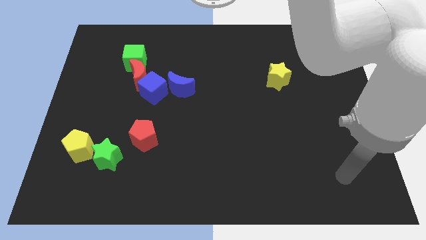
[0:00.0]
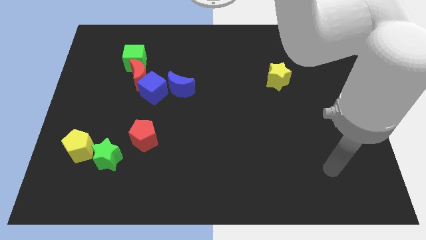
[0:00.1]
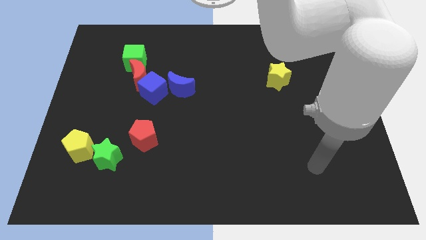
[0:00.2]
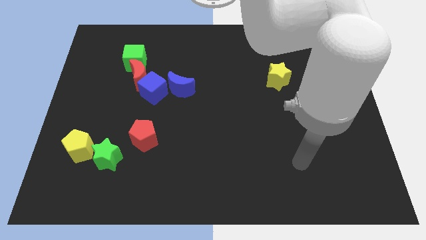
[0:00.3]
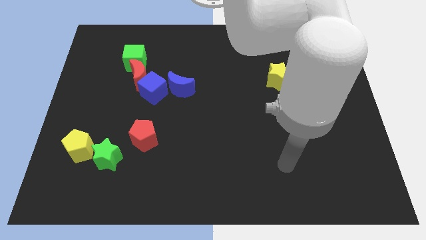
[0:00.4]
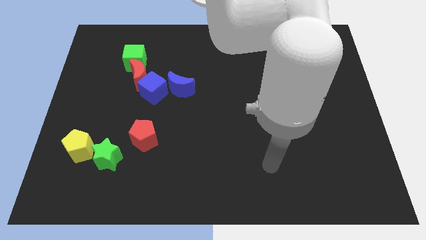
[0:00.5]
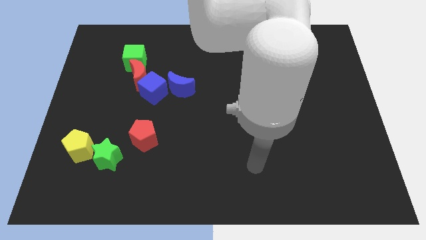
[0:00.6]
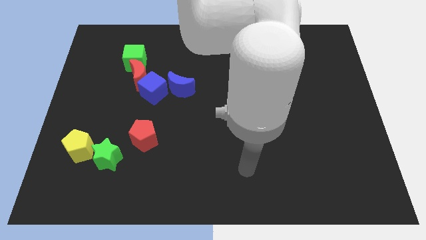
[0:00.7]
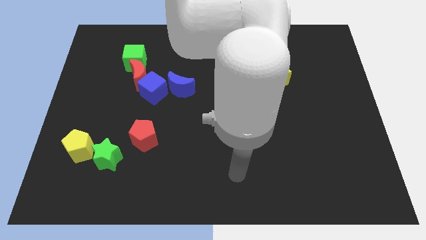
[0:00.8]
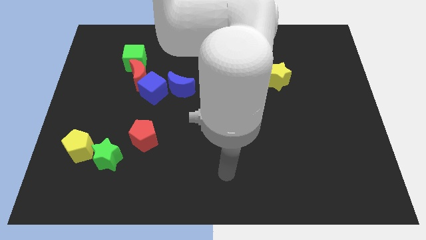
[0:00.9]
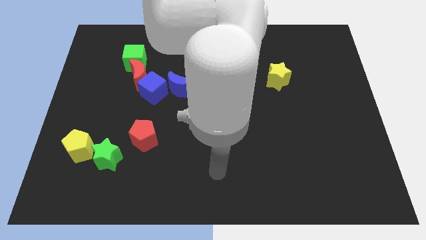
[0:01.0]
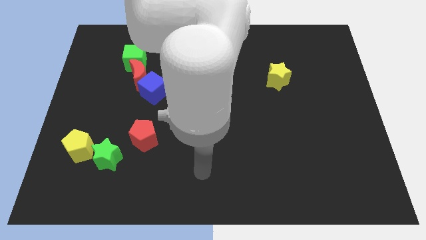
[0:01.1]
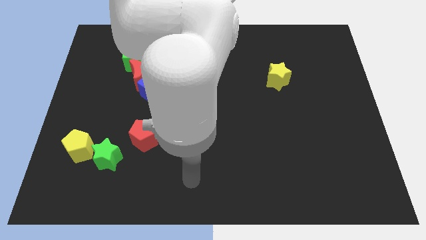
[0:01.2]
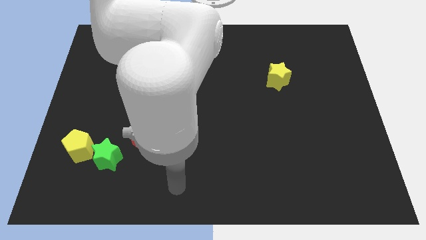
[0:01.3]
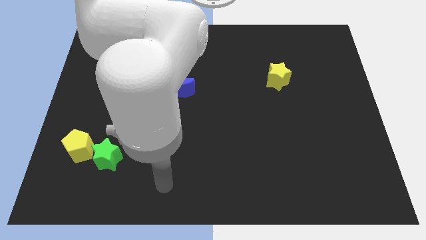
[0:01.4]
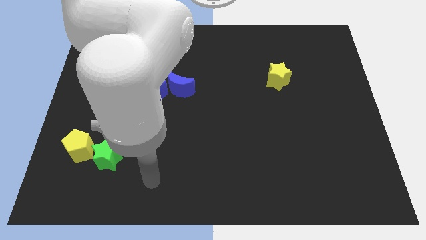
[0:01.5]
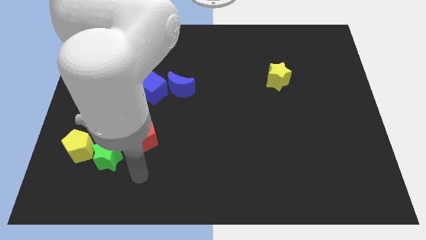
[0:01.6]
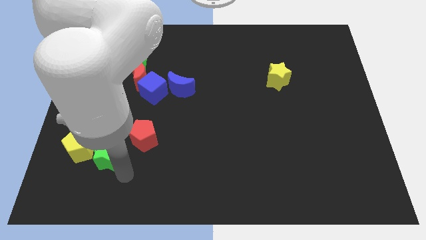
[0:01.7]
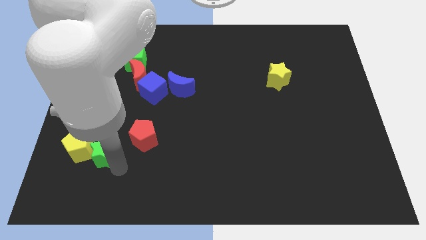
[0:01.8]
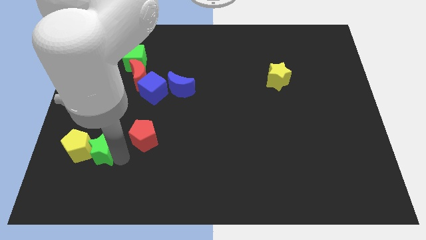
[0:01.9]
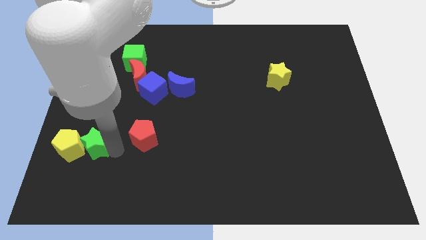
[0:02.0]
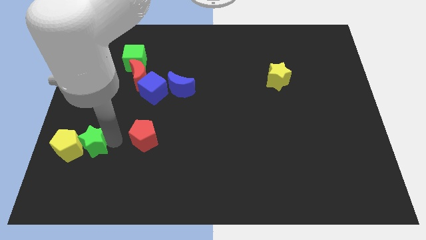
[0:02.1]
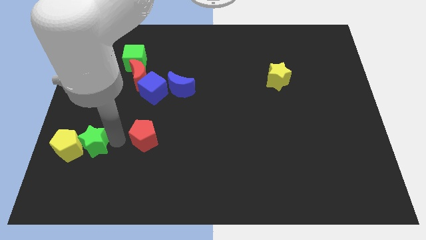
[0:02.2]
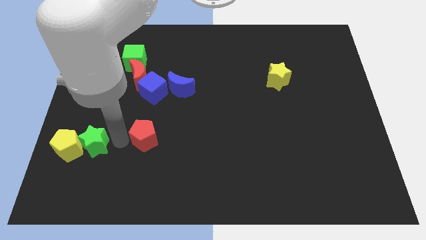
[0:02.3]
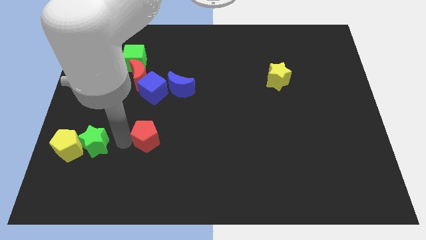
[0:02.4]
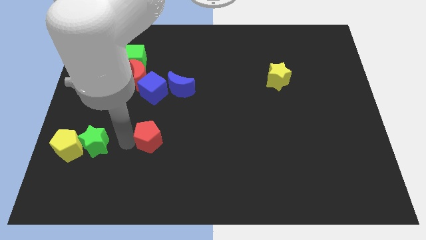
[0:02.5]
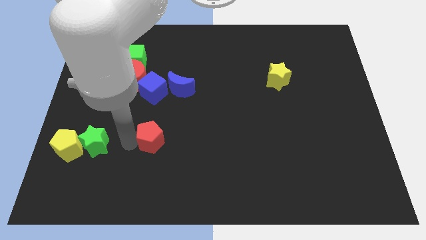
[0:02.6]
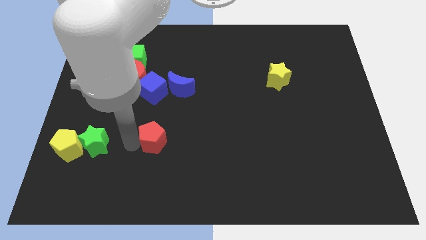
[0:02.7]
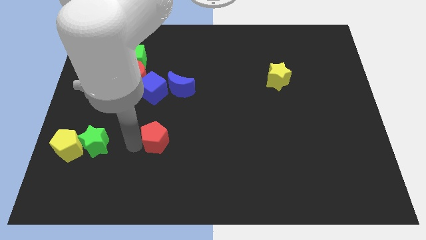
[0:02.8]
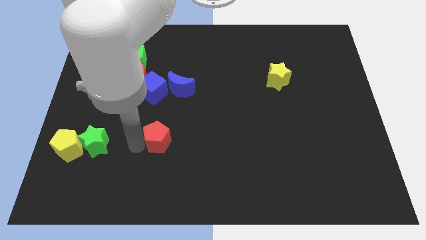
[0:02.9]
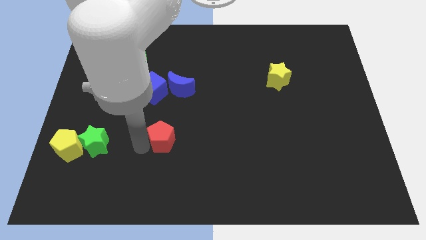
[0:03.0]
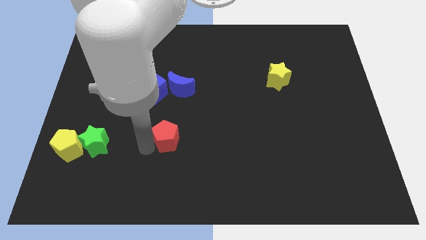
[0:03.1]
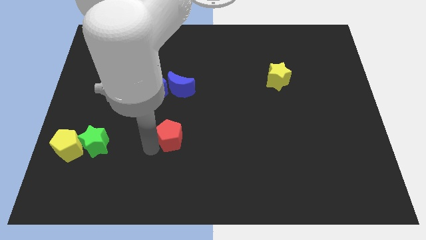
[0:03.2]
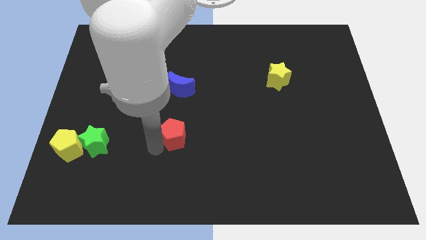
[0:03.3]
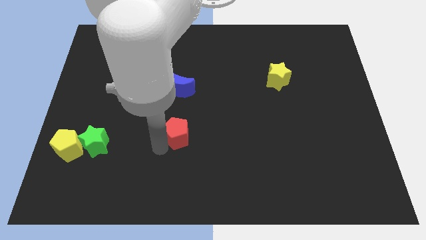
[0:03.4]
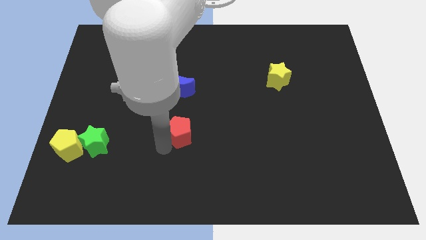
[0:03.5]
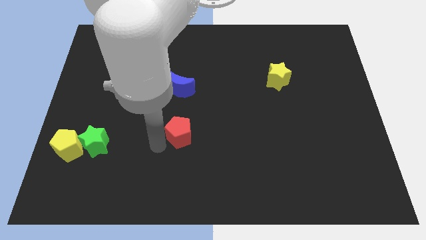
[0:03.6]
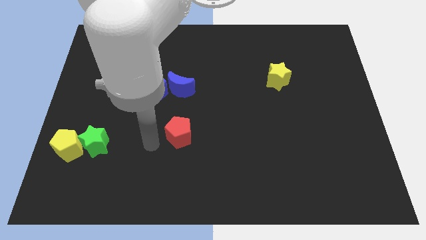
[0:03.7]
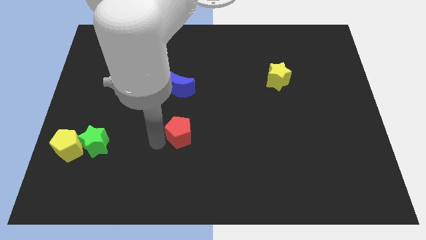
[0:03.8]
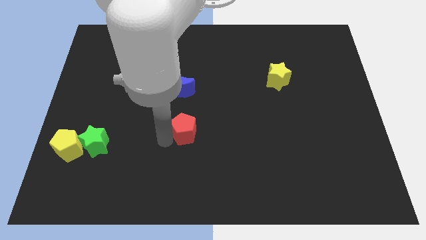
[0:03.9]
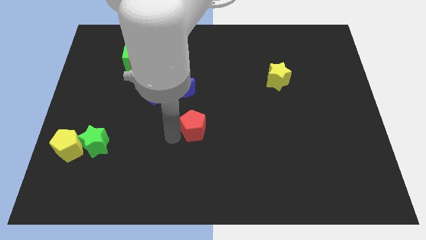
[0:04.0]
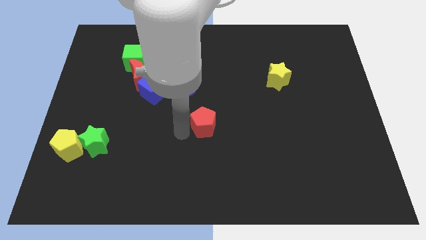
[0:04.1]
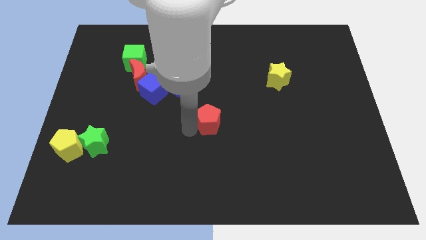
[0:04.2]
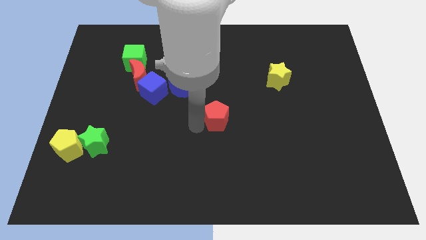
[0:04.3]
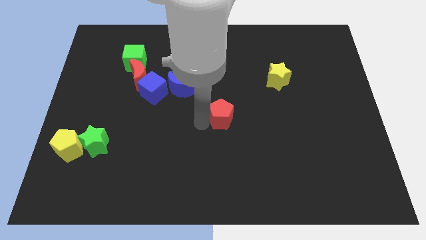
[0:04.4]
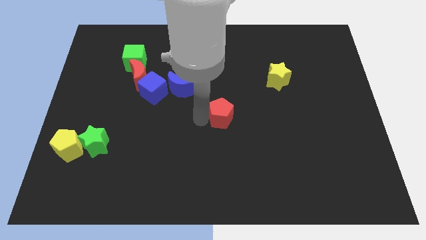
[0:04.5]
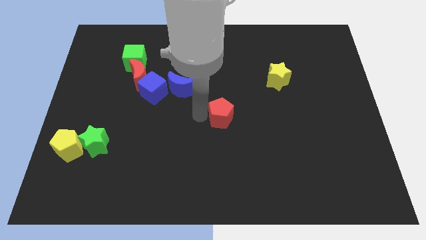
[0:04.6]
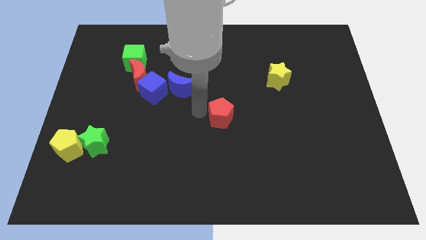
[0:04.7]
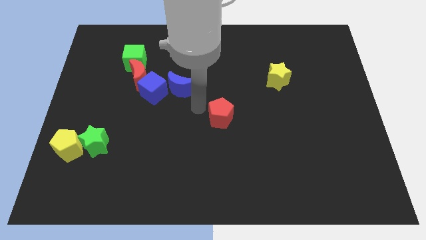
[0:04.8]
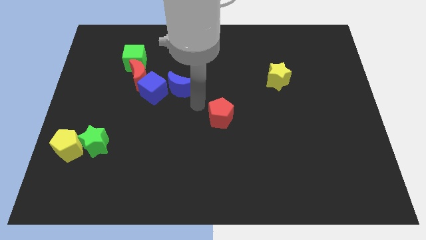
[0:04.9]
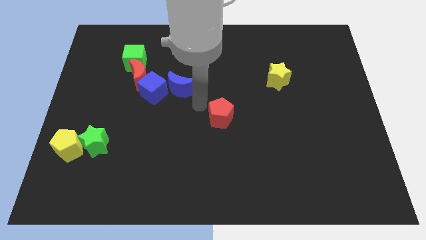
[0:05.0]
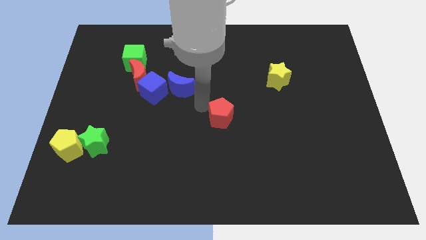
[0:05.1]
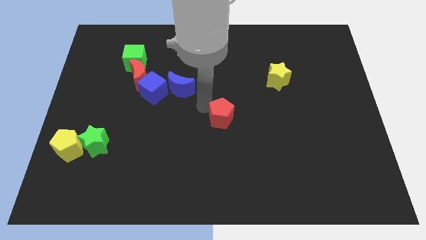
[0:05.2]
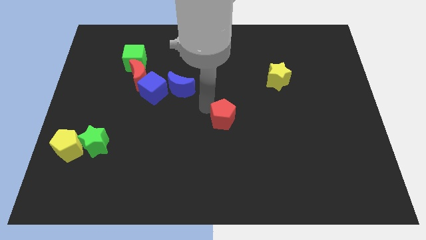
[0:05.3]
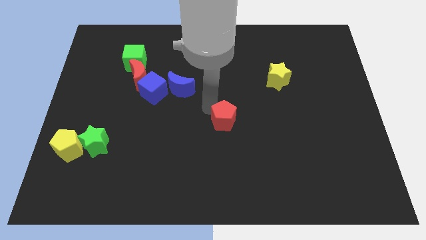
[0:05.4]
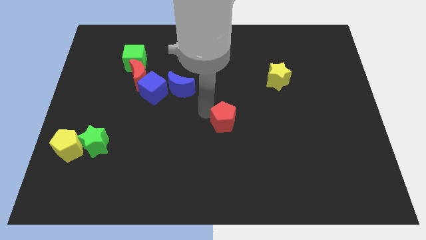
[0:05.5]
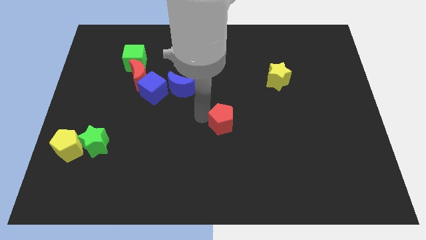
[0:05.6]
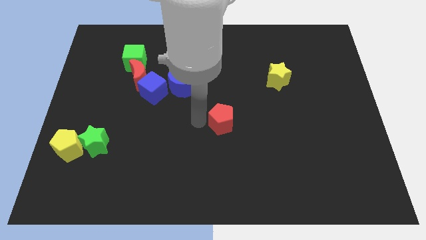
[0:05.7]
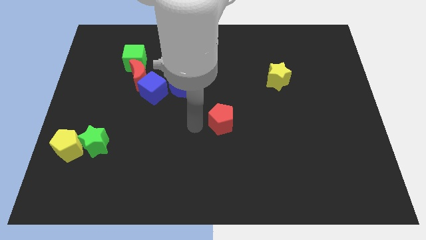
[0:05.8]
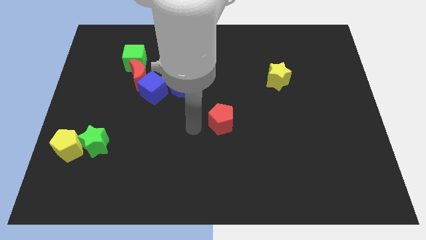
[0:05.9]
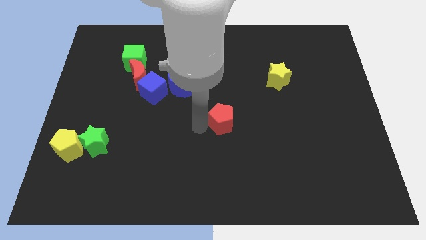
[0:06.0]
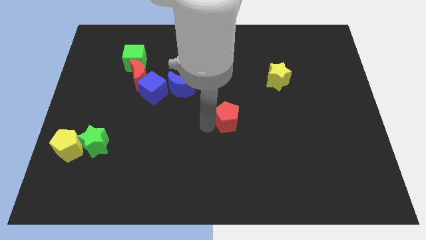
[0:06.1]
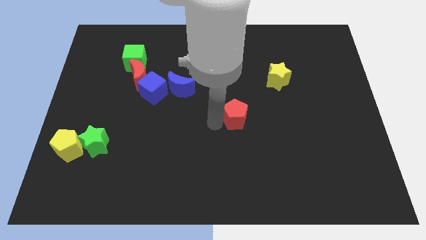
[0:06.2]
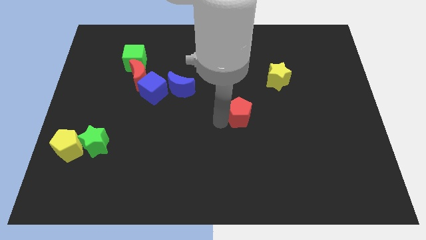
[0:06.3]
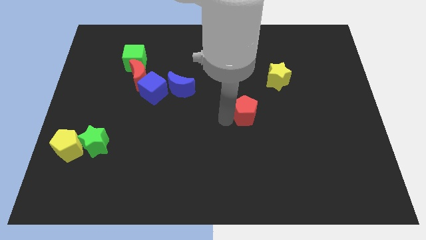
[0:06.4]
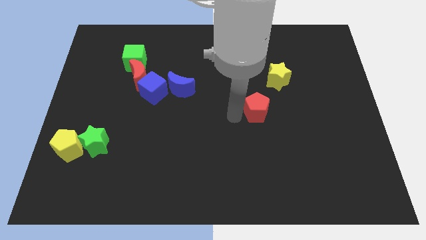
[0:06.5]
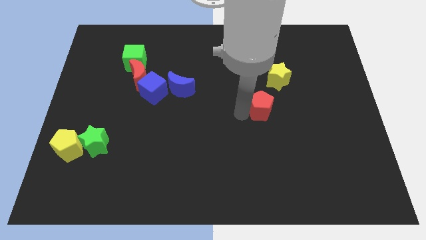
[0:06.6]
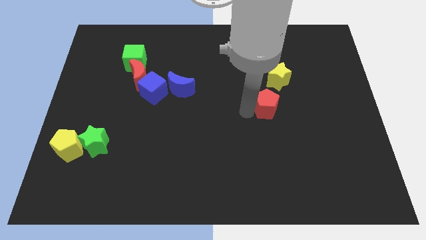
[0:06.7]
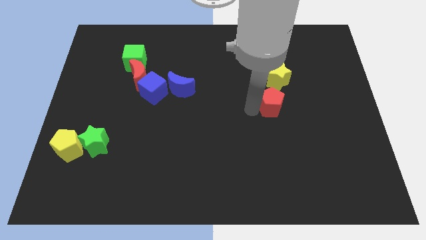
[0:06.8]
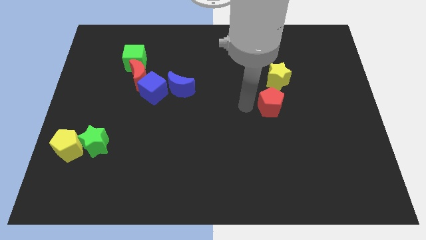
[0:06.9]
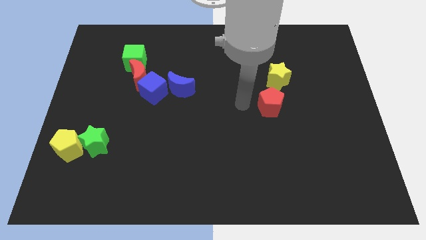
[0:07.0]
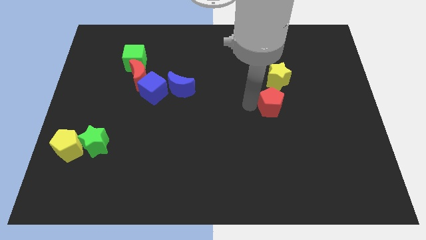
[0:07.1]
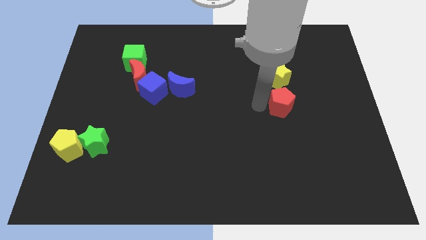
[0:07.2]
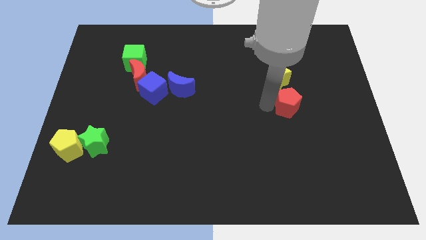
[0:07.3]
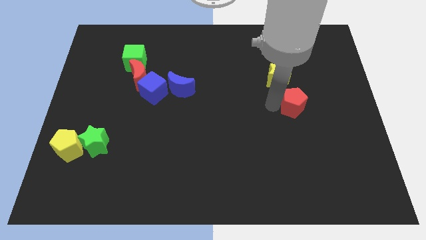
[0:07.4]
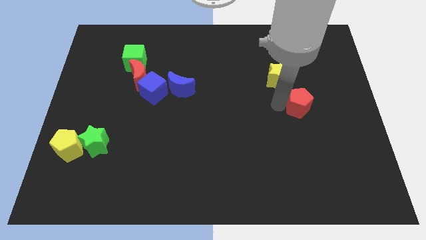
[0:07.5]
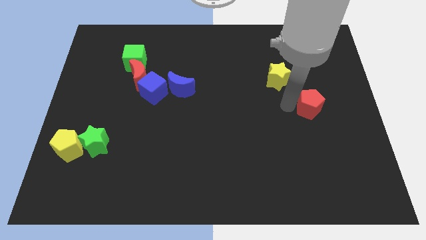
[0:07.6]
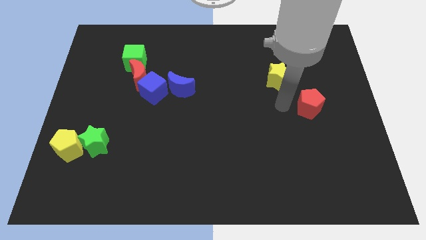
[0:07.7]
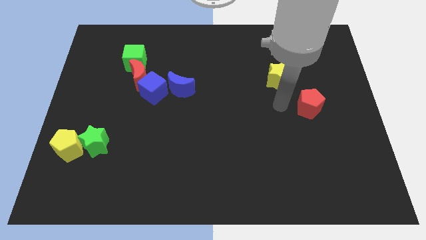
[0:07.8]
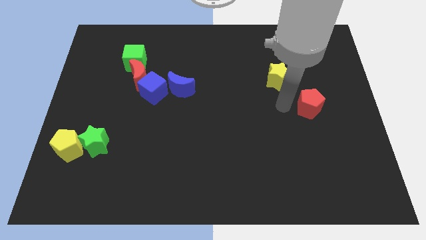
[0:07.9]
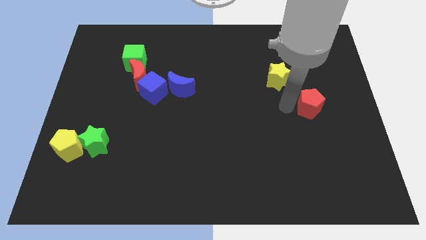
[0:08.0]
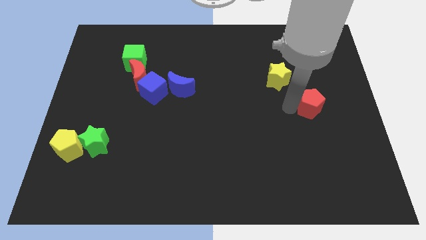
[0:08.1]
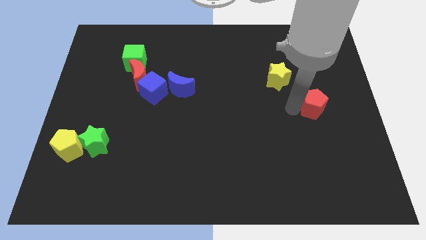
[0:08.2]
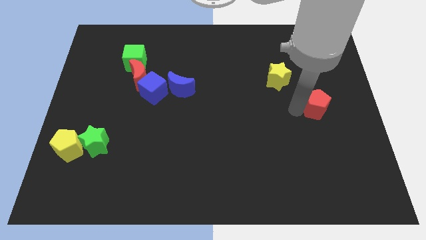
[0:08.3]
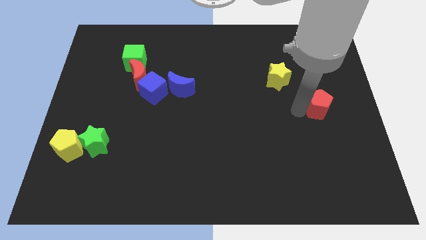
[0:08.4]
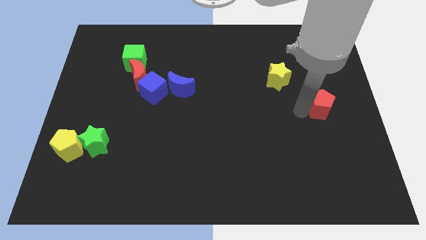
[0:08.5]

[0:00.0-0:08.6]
put the red pentagon to the right side of the board
